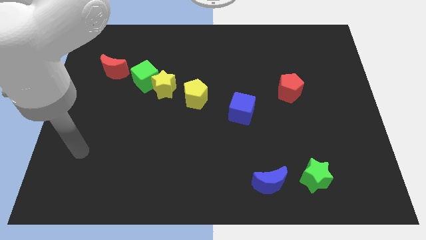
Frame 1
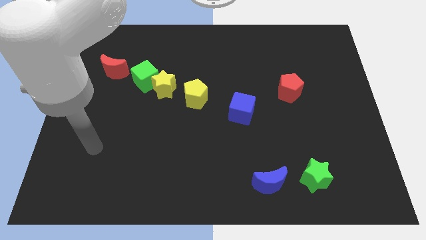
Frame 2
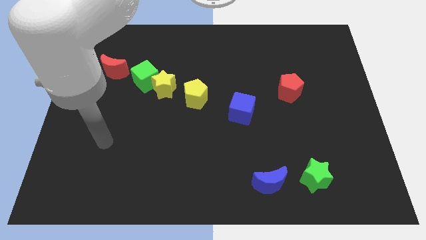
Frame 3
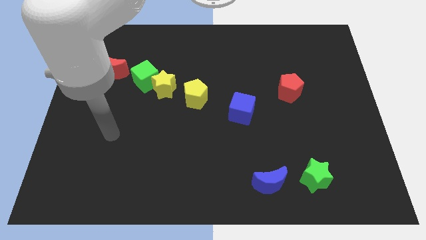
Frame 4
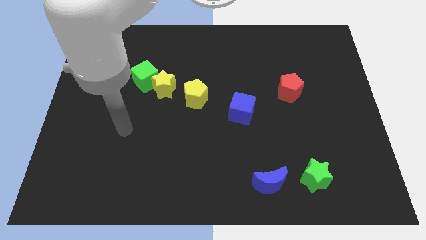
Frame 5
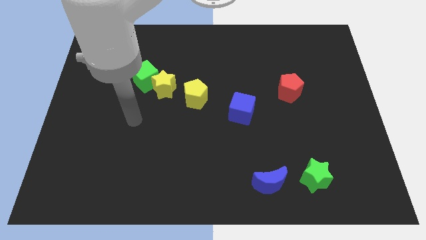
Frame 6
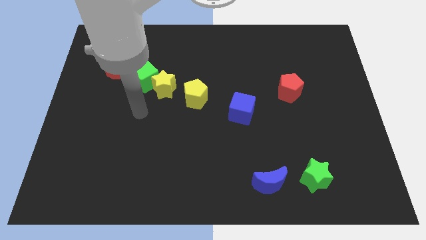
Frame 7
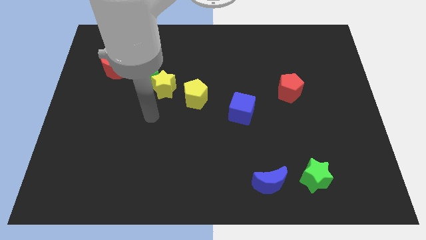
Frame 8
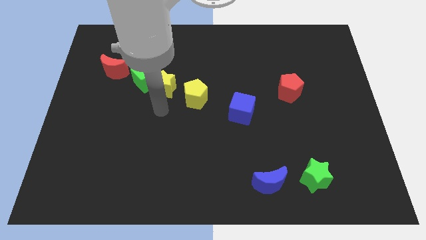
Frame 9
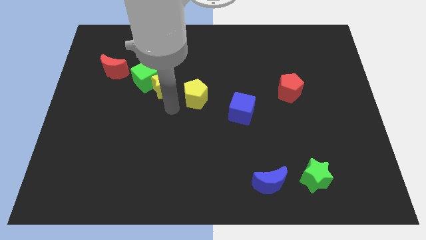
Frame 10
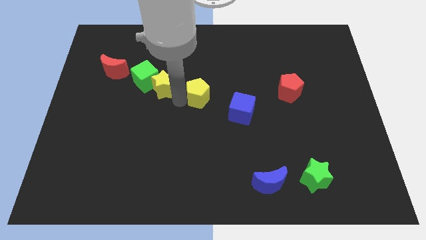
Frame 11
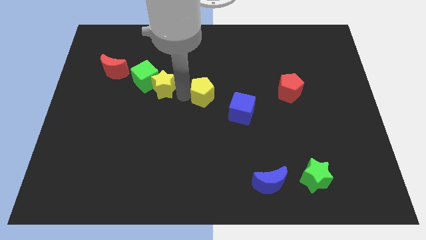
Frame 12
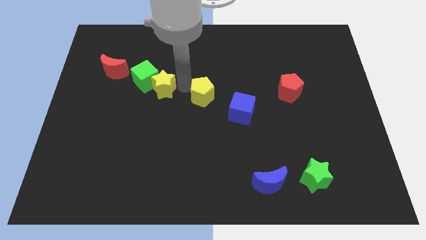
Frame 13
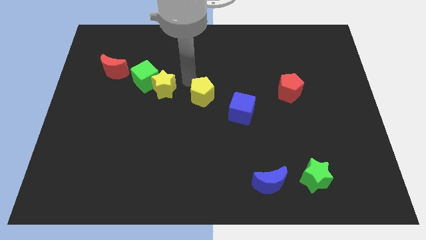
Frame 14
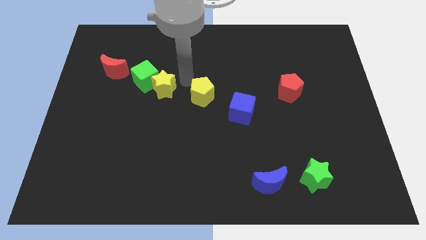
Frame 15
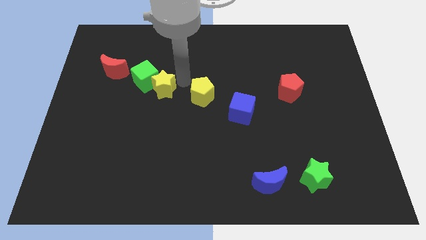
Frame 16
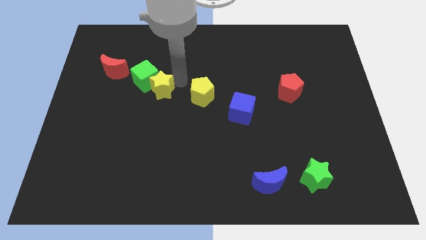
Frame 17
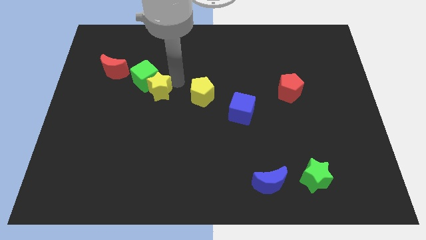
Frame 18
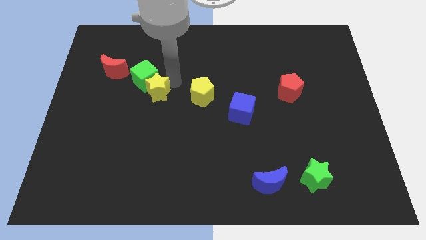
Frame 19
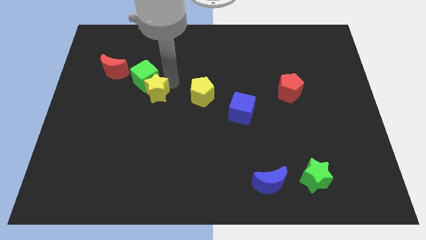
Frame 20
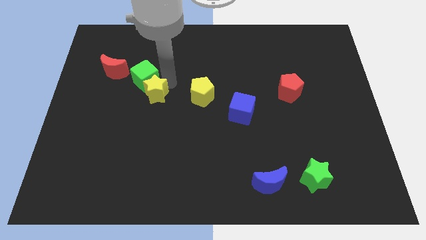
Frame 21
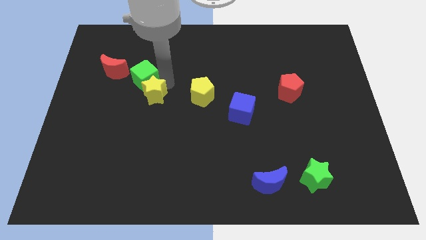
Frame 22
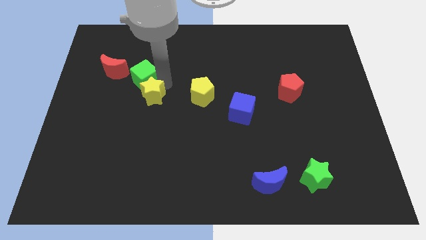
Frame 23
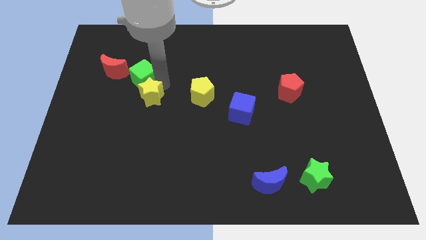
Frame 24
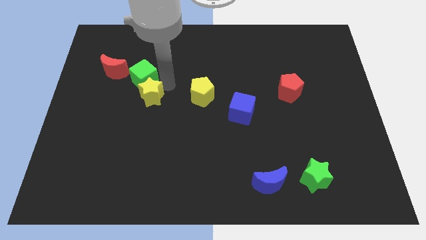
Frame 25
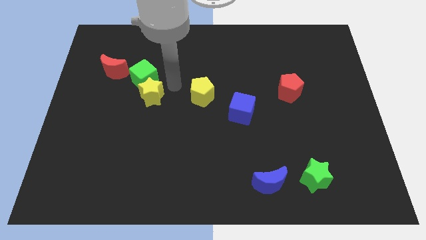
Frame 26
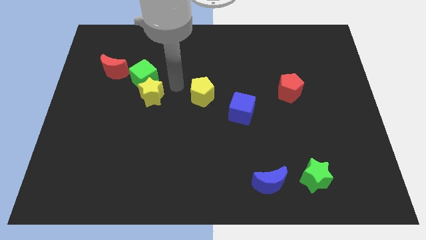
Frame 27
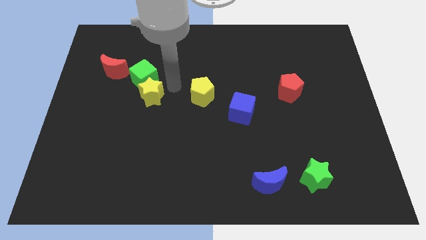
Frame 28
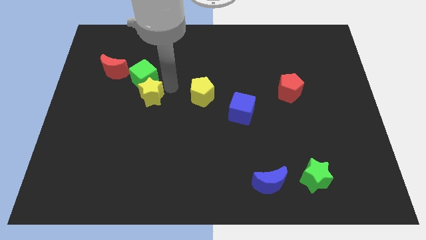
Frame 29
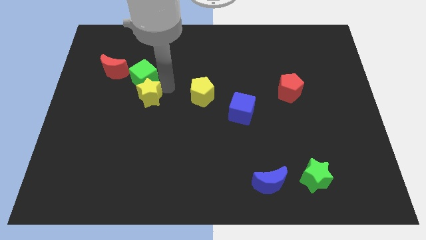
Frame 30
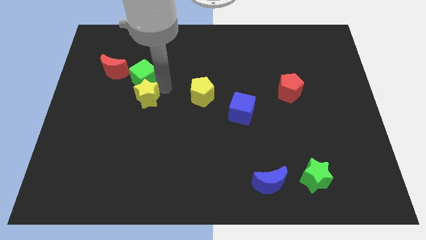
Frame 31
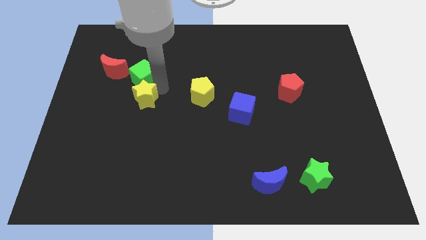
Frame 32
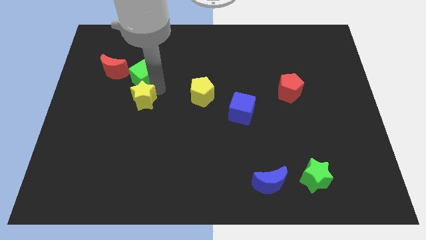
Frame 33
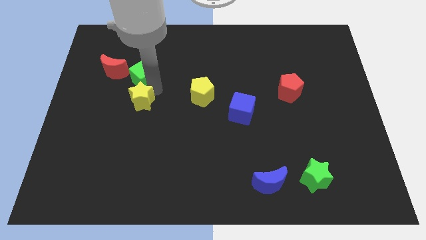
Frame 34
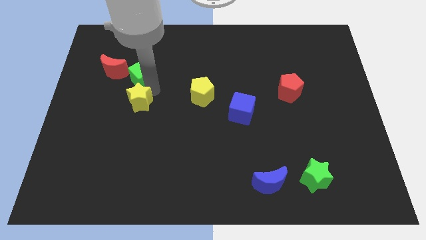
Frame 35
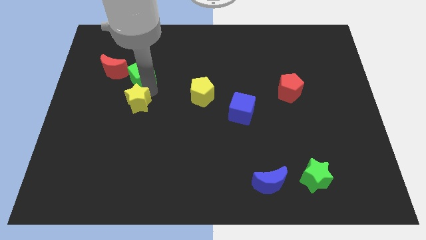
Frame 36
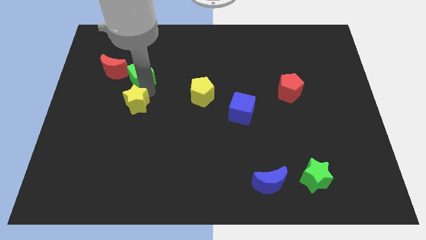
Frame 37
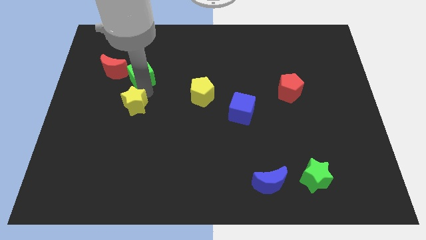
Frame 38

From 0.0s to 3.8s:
pull the yellow star apart from the green cube and yellow pentagon

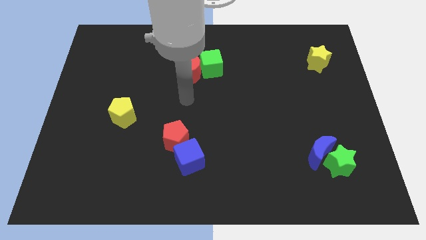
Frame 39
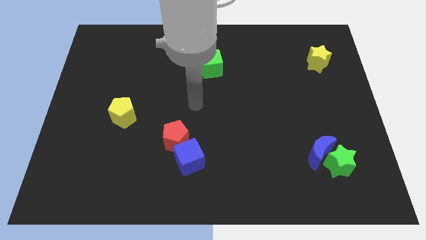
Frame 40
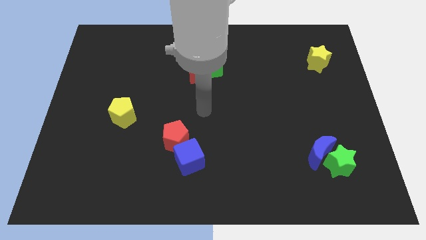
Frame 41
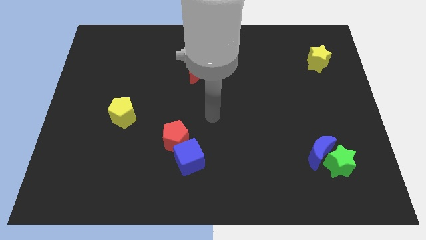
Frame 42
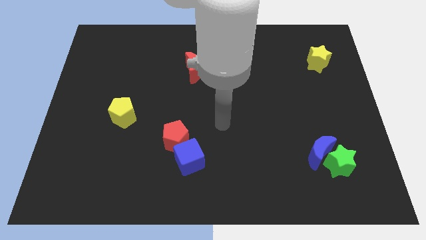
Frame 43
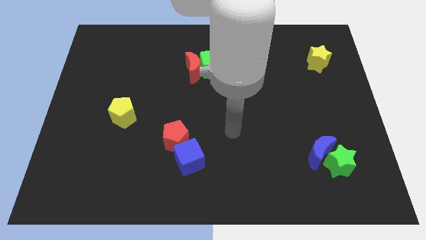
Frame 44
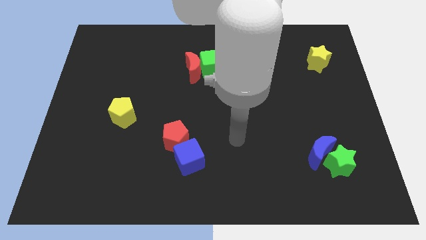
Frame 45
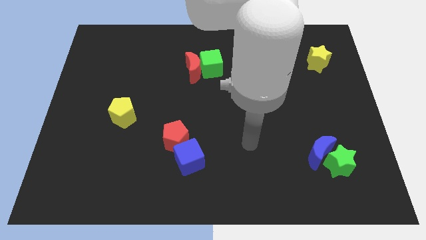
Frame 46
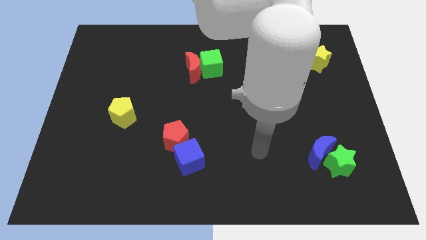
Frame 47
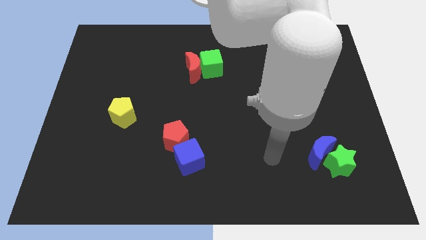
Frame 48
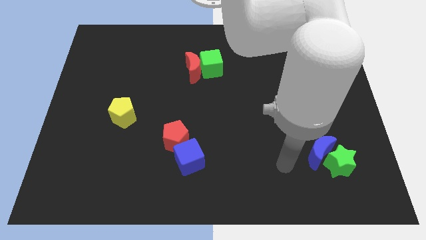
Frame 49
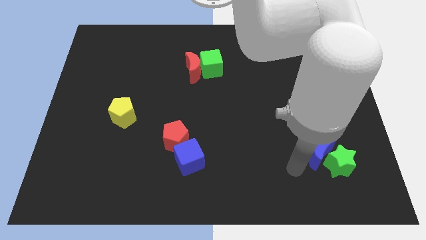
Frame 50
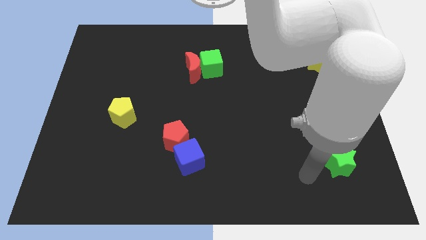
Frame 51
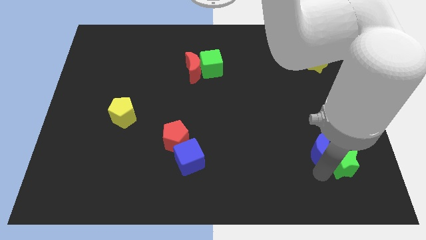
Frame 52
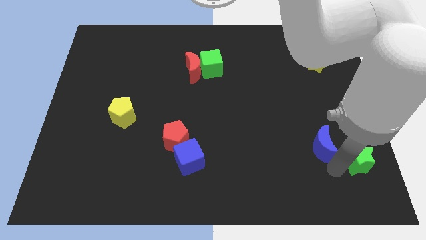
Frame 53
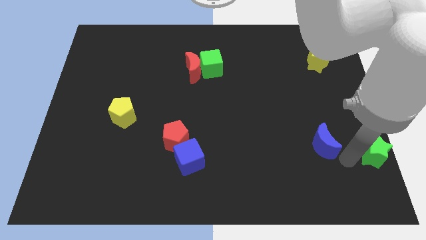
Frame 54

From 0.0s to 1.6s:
move the blue moon away from the green star

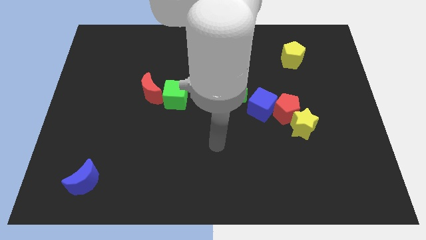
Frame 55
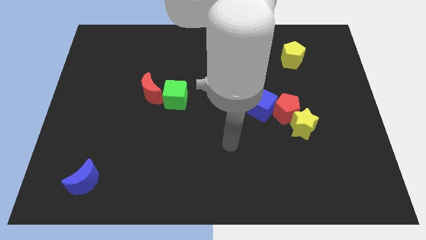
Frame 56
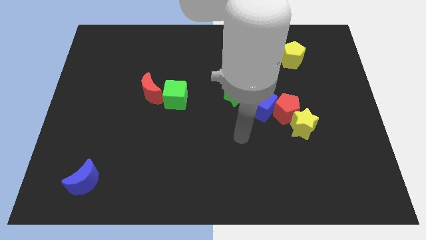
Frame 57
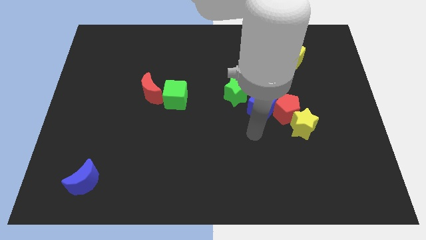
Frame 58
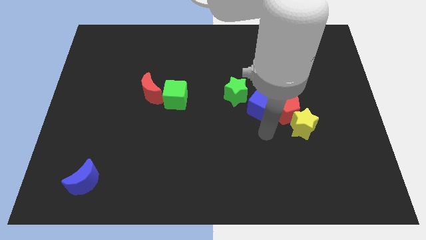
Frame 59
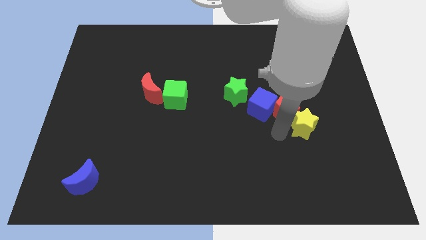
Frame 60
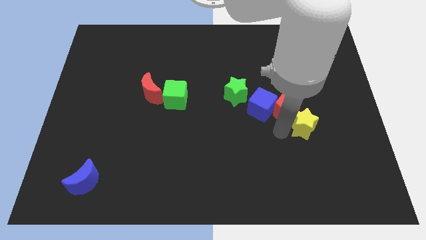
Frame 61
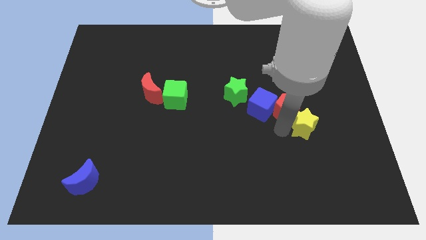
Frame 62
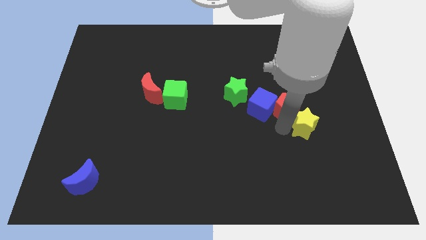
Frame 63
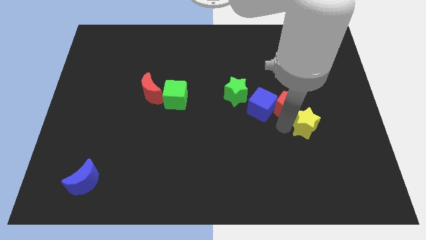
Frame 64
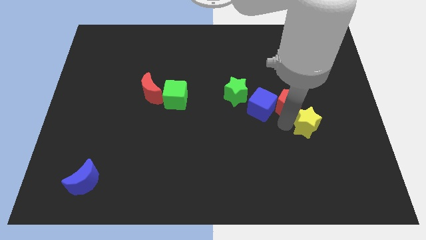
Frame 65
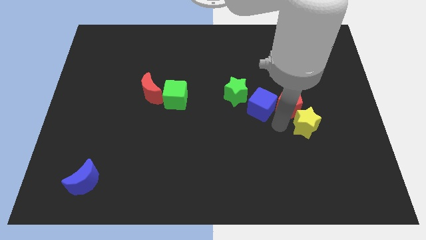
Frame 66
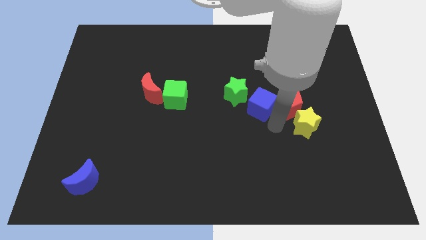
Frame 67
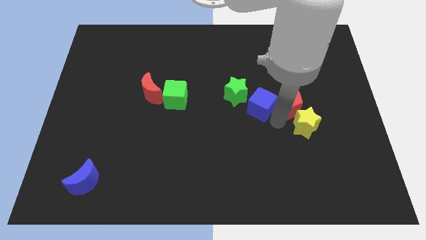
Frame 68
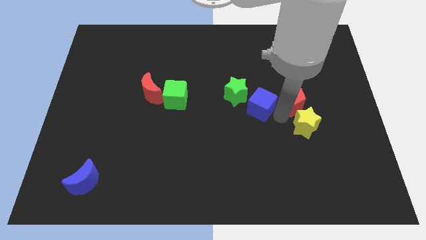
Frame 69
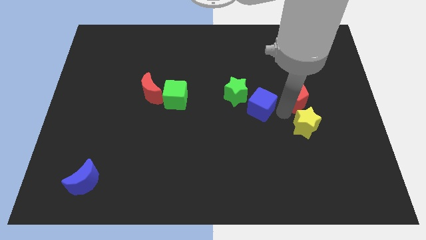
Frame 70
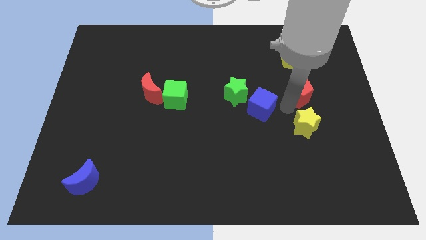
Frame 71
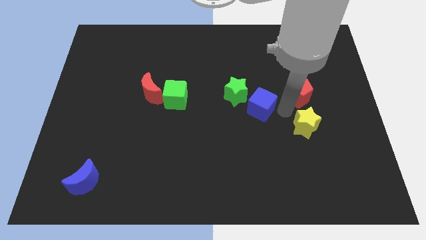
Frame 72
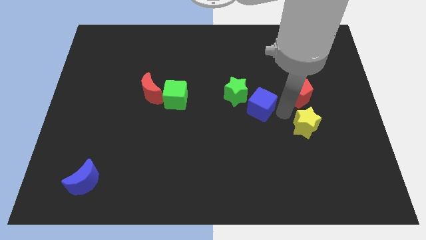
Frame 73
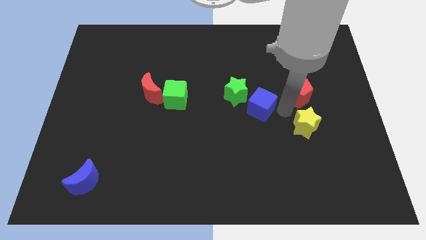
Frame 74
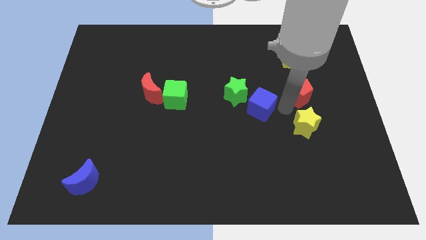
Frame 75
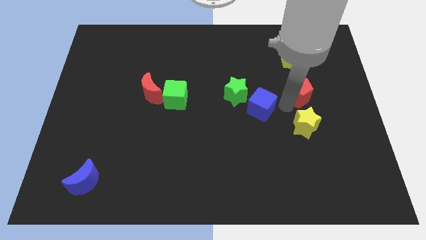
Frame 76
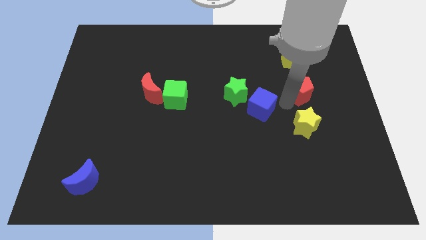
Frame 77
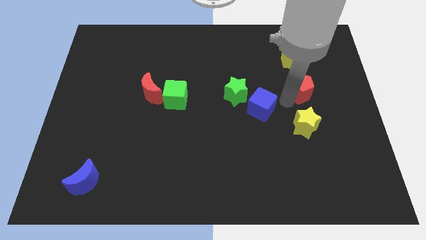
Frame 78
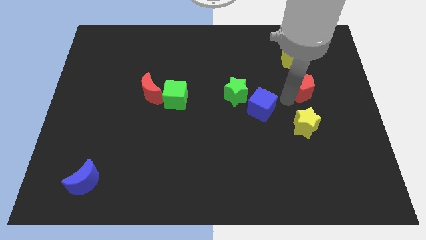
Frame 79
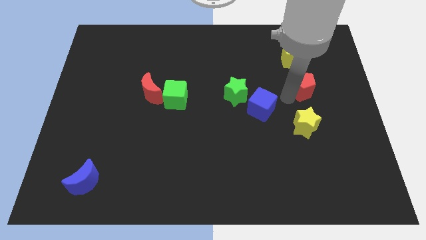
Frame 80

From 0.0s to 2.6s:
separate the red pentagon from the yellow star and blue cube

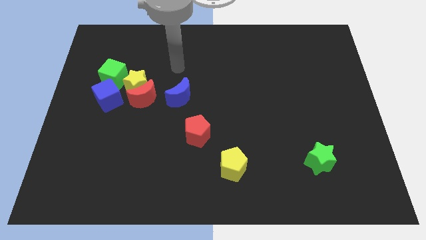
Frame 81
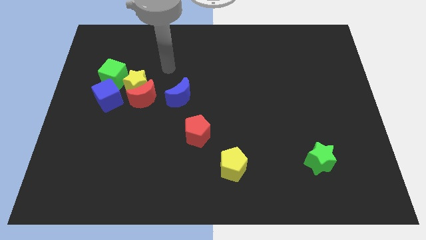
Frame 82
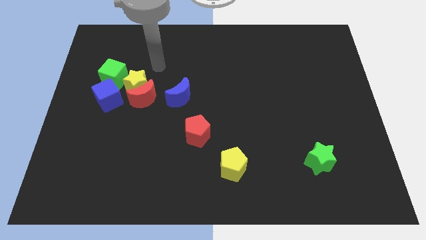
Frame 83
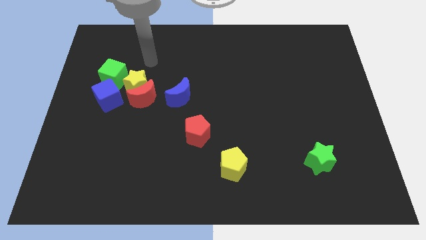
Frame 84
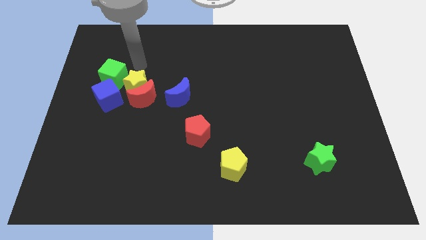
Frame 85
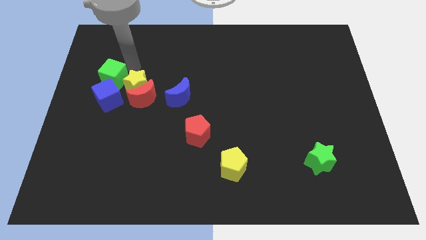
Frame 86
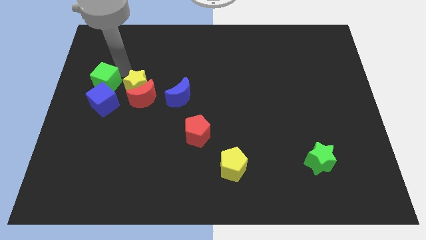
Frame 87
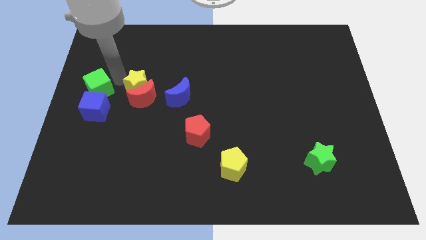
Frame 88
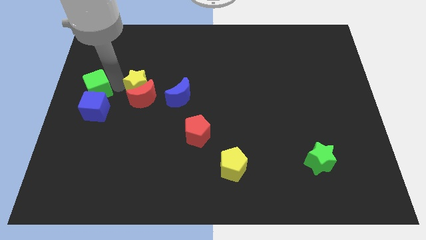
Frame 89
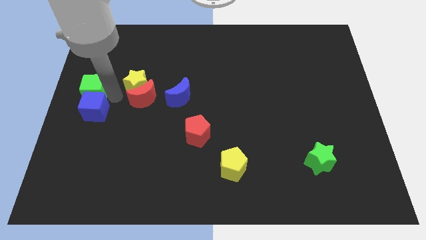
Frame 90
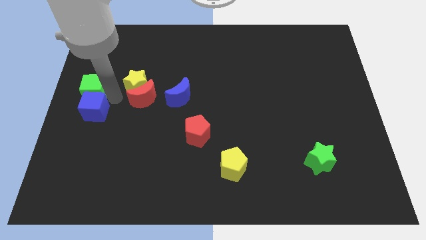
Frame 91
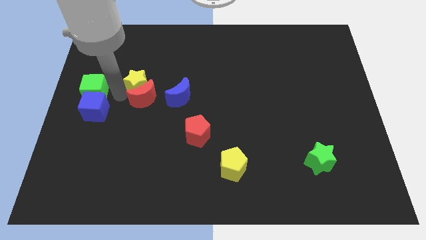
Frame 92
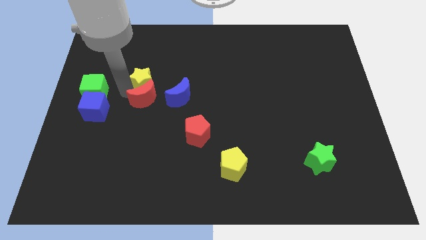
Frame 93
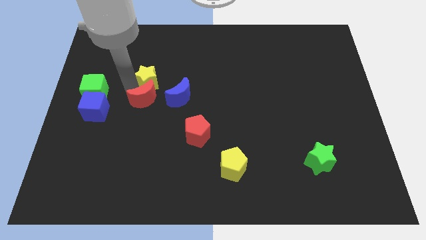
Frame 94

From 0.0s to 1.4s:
pull the yellow star apart from the red moon, green cube, and blue cube

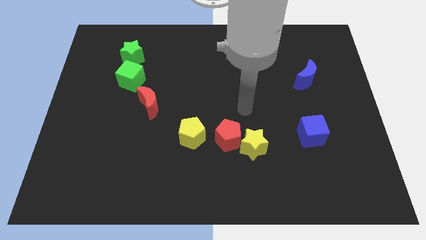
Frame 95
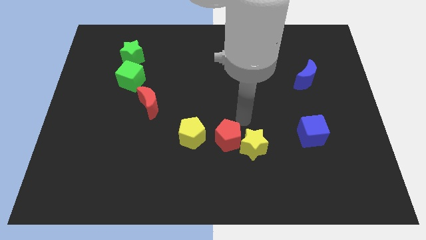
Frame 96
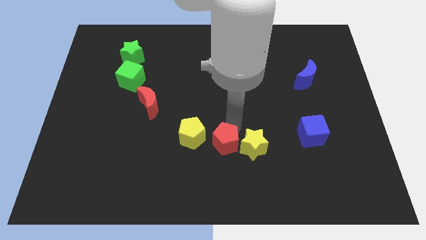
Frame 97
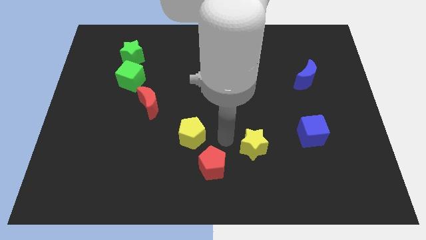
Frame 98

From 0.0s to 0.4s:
move the yellow star away from the red pentagon
